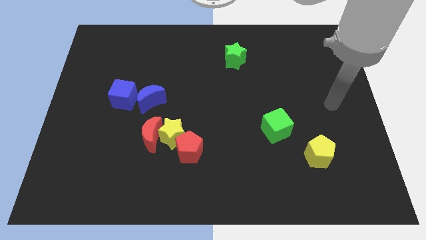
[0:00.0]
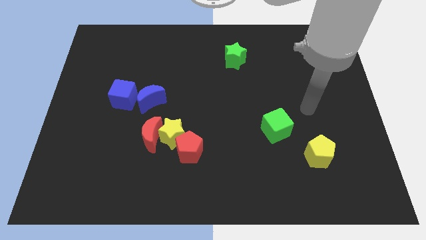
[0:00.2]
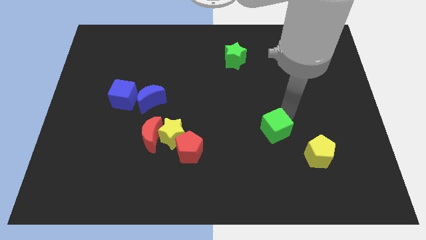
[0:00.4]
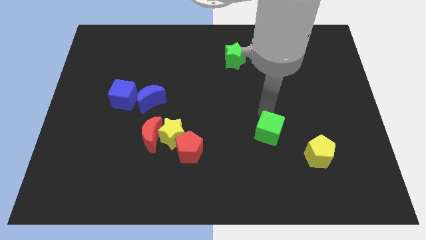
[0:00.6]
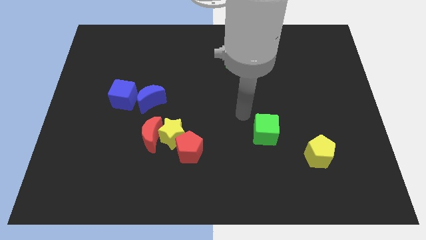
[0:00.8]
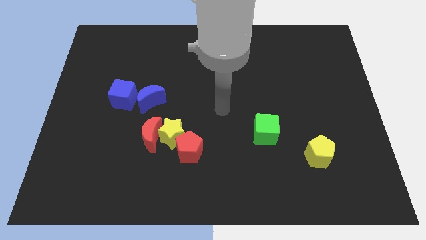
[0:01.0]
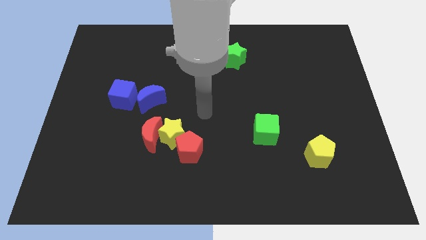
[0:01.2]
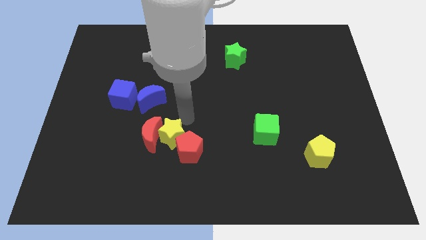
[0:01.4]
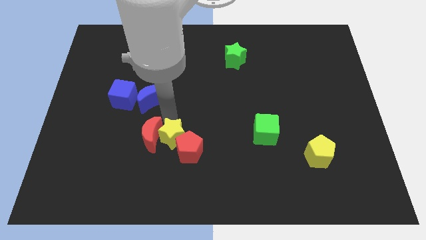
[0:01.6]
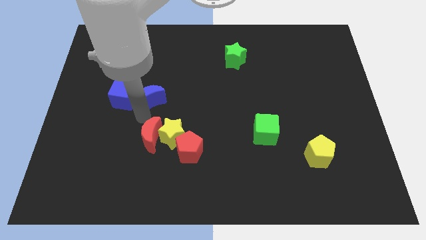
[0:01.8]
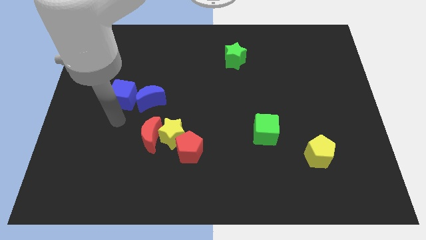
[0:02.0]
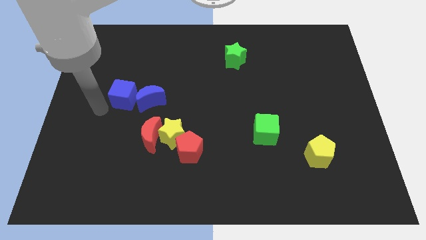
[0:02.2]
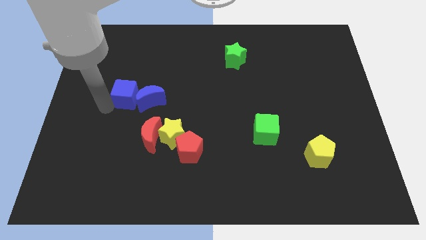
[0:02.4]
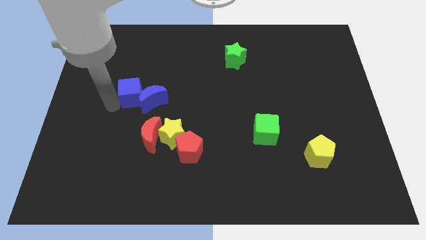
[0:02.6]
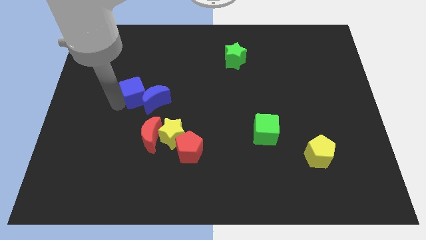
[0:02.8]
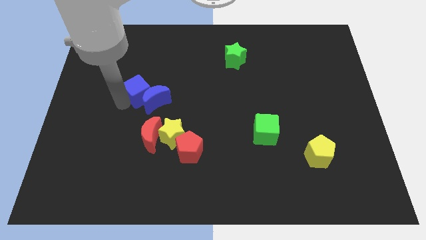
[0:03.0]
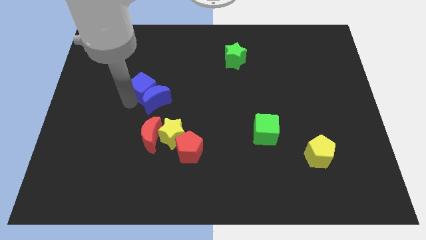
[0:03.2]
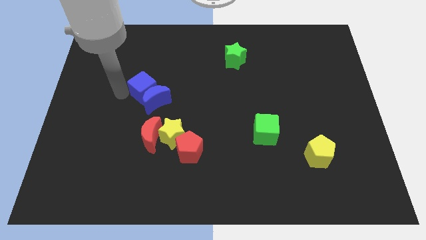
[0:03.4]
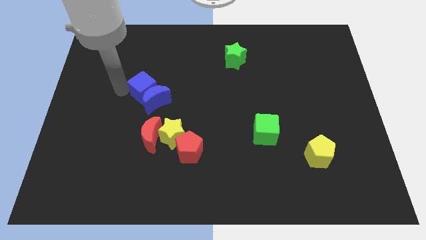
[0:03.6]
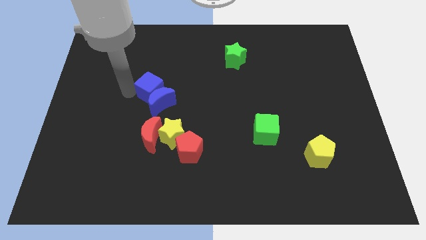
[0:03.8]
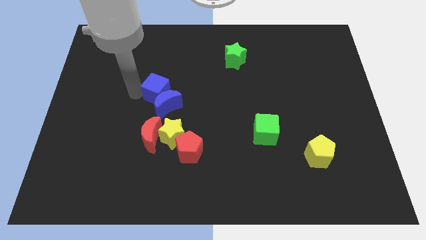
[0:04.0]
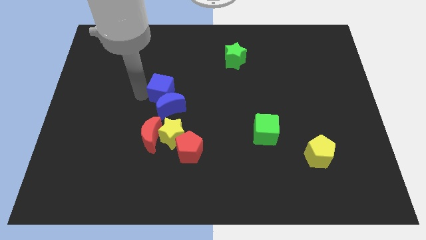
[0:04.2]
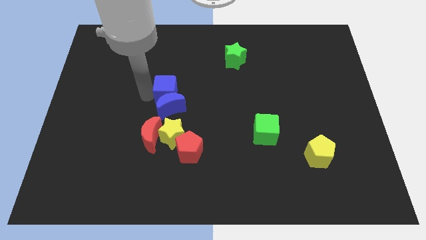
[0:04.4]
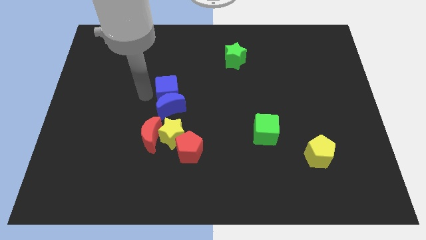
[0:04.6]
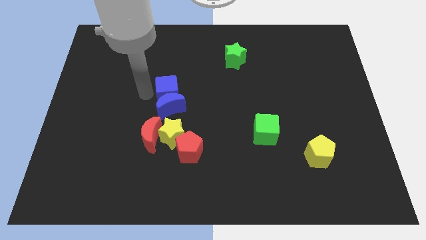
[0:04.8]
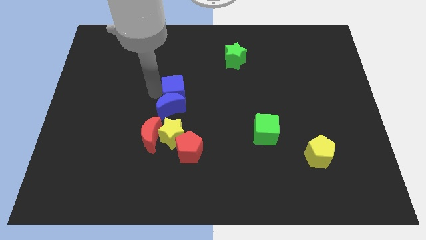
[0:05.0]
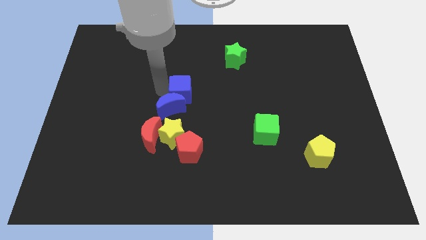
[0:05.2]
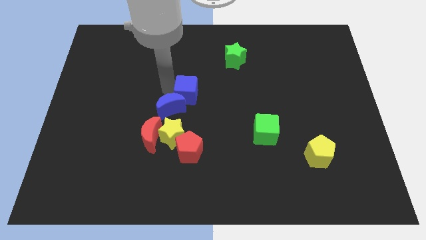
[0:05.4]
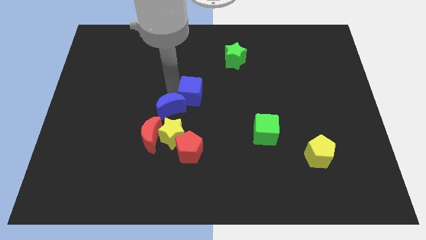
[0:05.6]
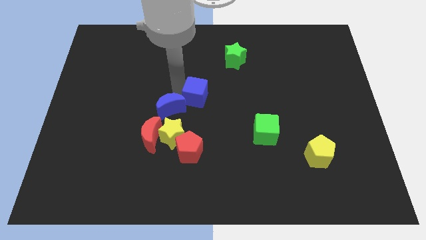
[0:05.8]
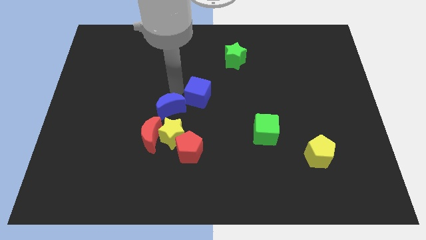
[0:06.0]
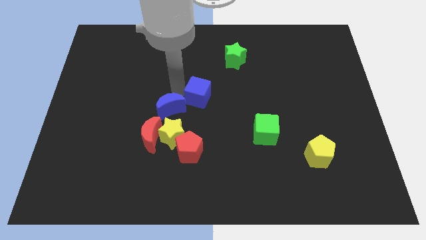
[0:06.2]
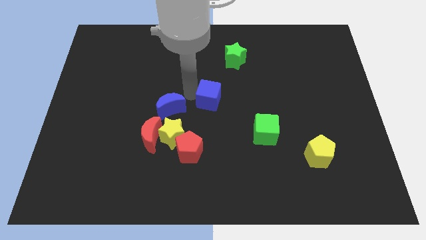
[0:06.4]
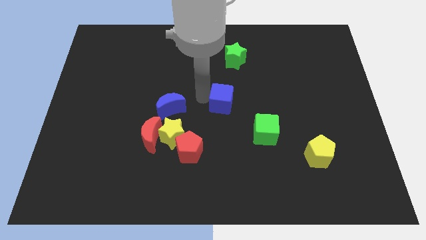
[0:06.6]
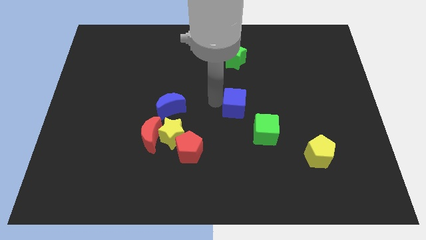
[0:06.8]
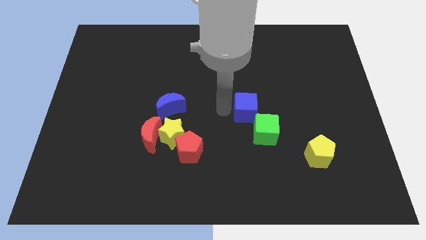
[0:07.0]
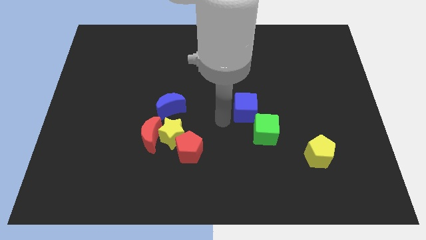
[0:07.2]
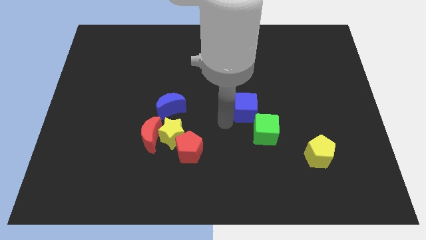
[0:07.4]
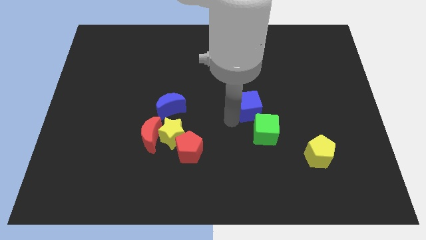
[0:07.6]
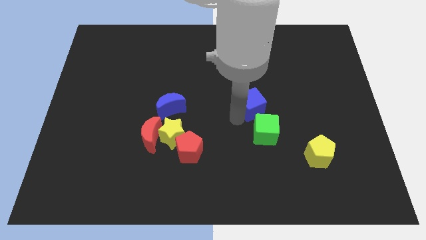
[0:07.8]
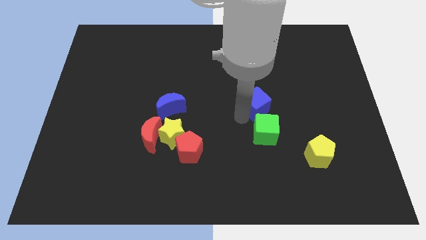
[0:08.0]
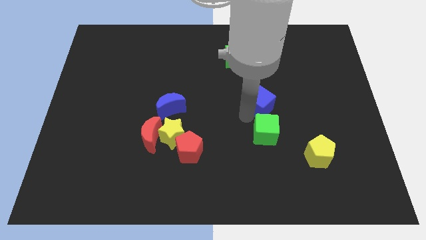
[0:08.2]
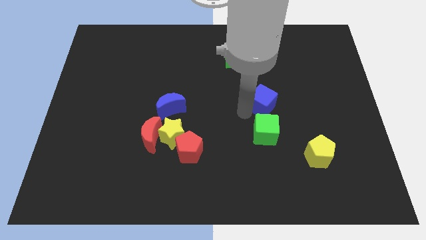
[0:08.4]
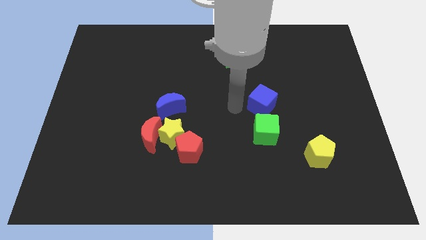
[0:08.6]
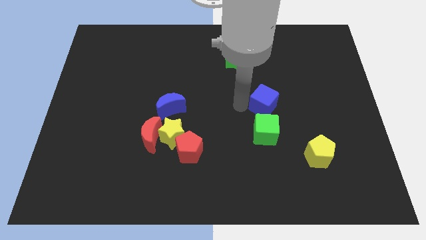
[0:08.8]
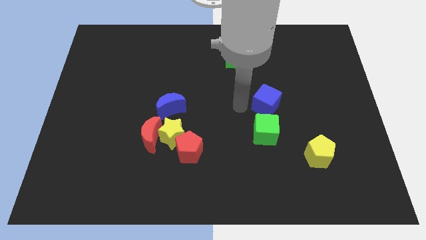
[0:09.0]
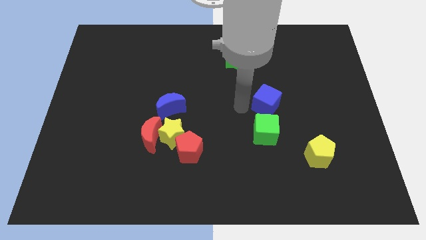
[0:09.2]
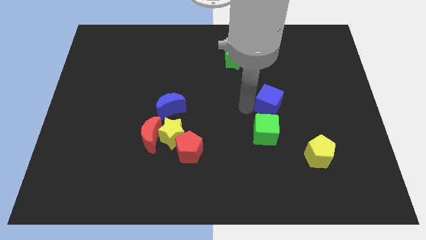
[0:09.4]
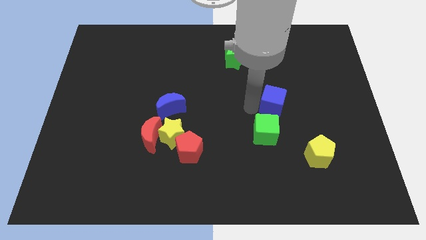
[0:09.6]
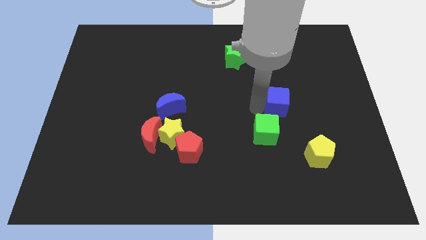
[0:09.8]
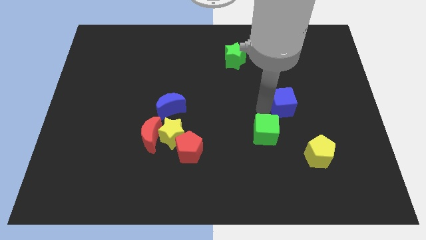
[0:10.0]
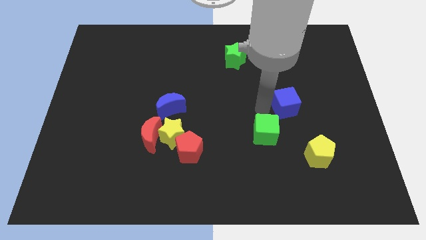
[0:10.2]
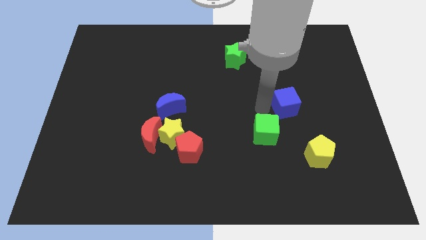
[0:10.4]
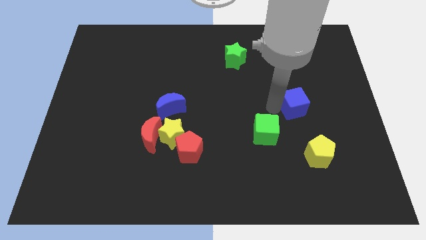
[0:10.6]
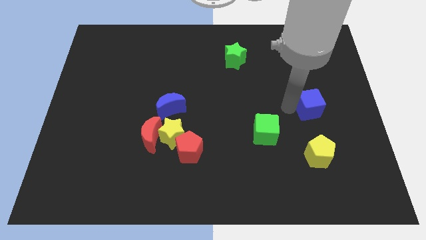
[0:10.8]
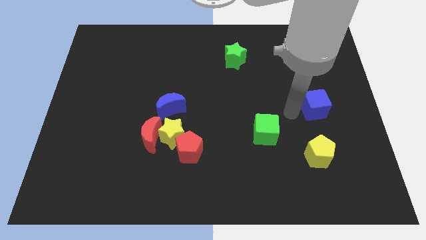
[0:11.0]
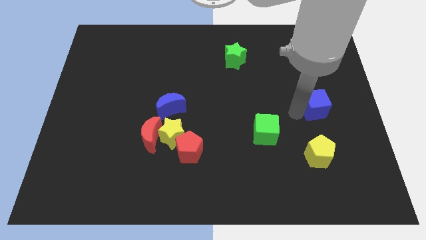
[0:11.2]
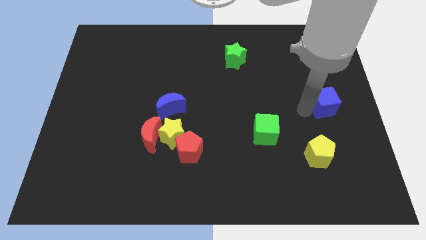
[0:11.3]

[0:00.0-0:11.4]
move the blue cube to the right side

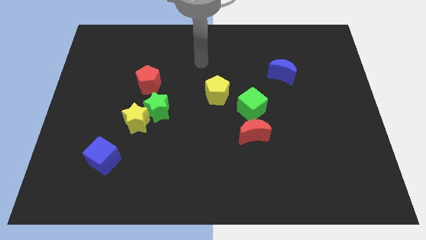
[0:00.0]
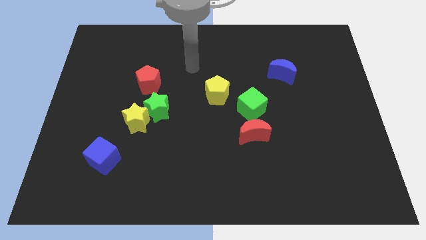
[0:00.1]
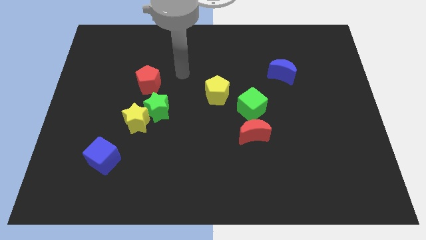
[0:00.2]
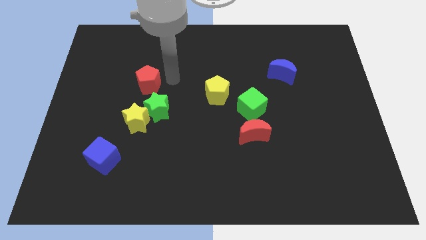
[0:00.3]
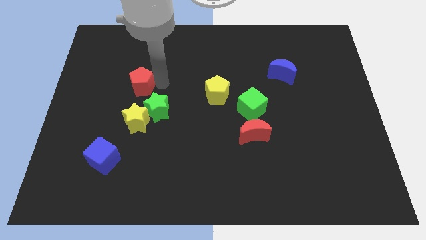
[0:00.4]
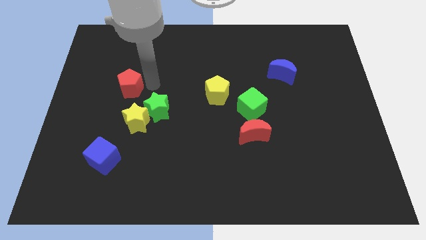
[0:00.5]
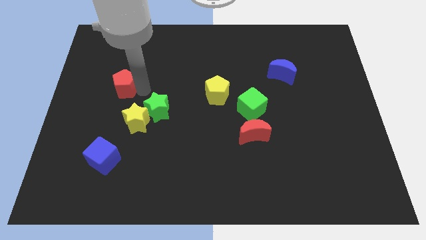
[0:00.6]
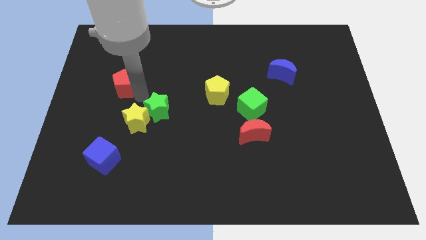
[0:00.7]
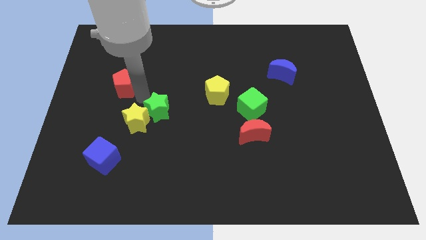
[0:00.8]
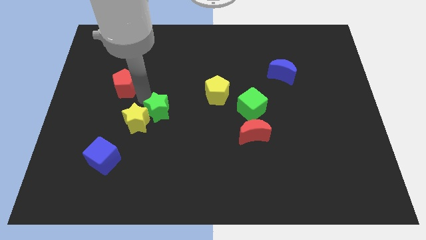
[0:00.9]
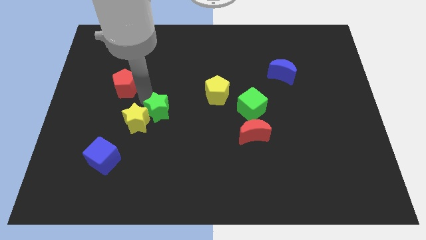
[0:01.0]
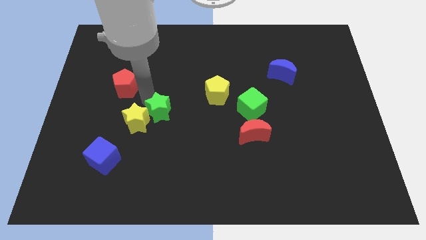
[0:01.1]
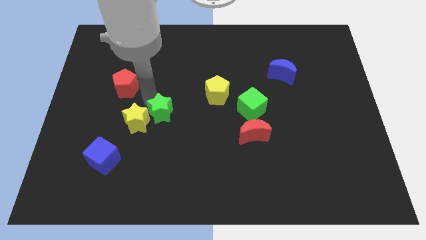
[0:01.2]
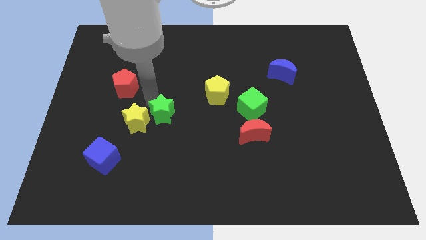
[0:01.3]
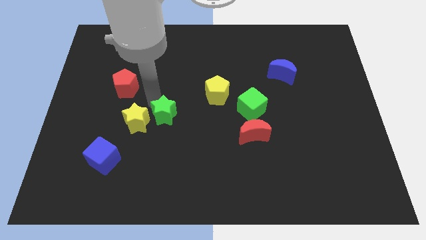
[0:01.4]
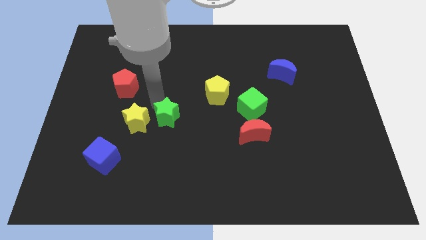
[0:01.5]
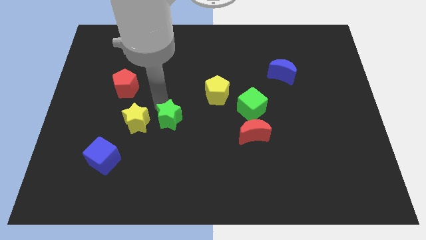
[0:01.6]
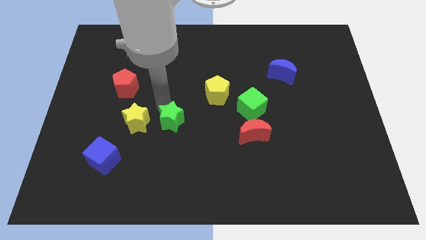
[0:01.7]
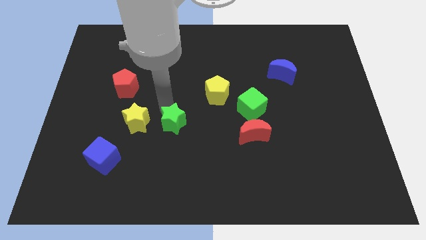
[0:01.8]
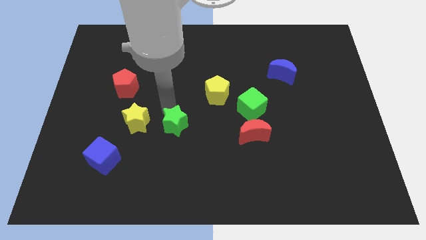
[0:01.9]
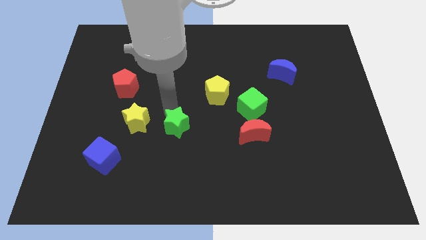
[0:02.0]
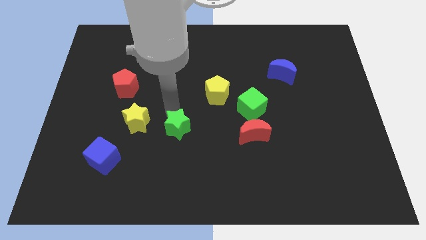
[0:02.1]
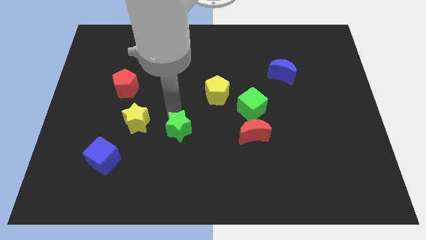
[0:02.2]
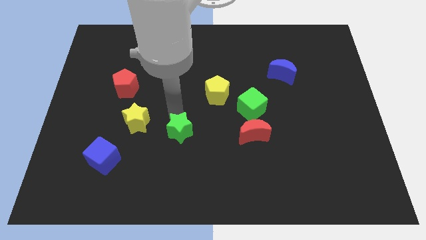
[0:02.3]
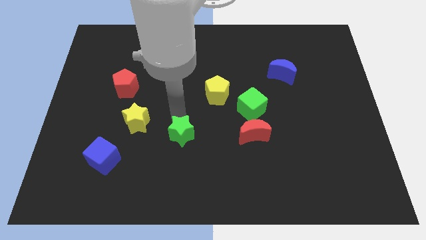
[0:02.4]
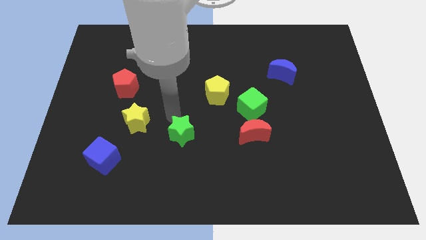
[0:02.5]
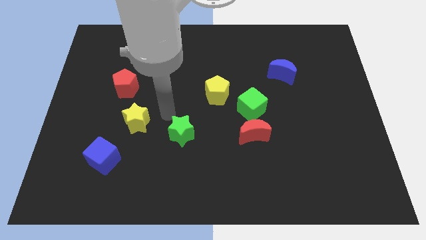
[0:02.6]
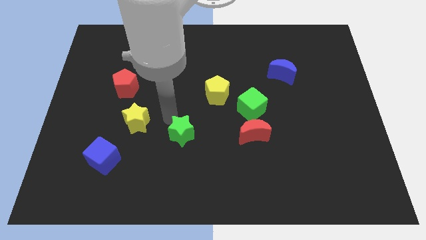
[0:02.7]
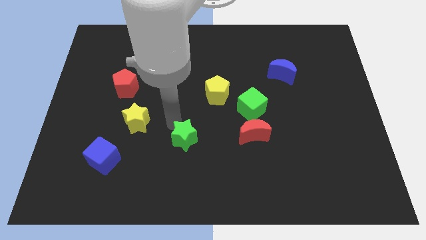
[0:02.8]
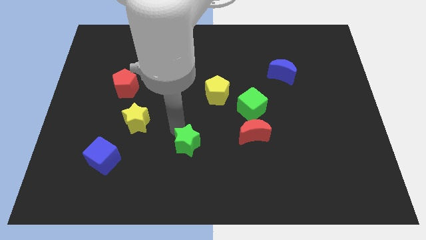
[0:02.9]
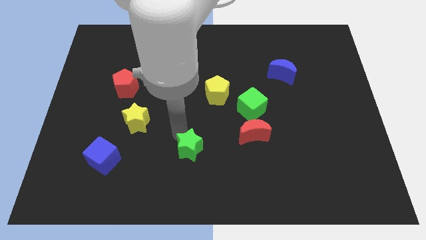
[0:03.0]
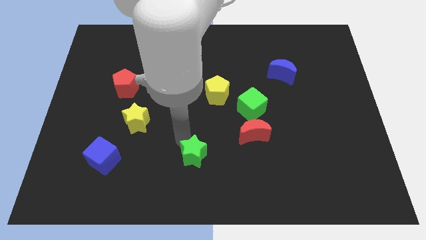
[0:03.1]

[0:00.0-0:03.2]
slide the green star to the bottom
